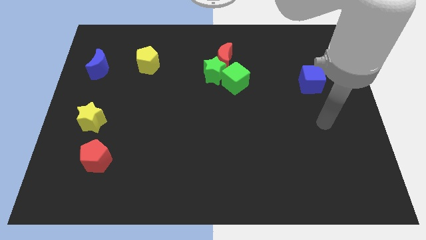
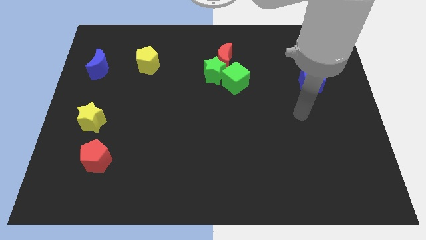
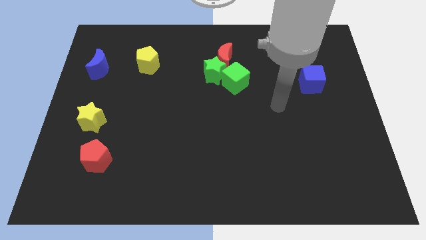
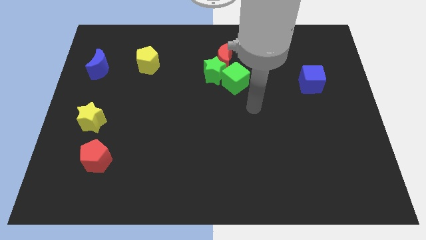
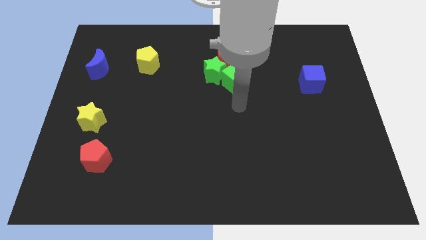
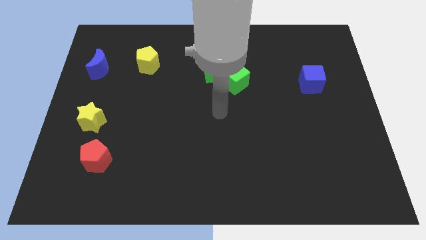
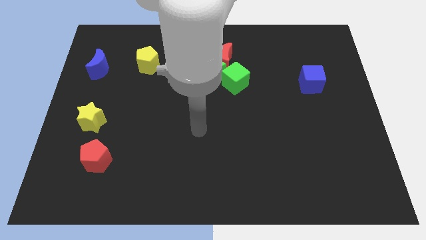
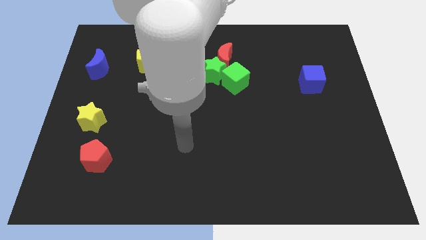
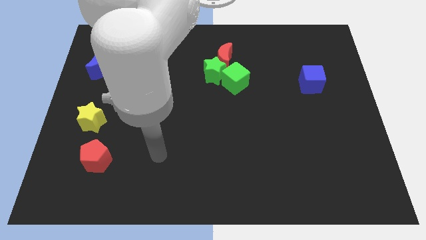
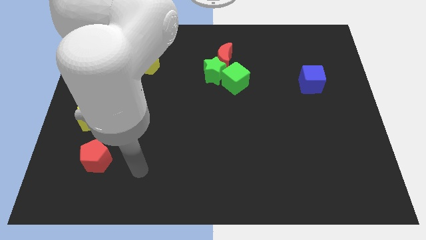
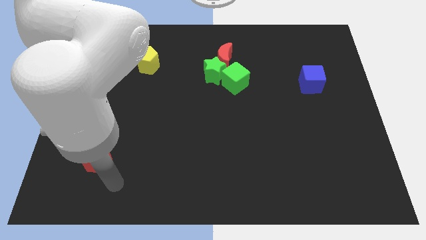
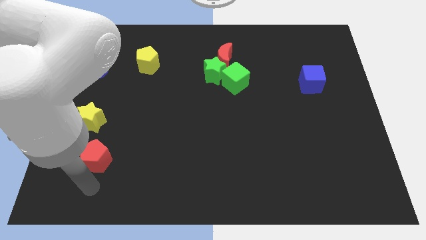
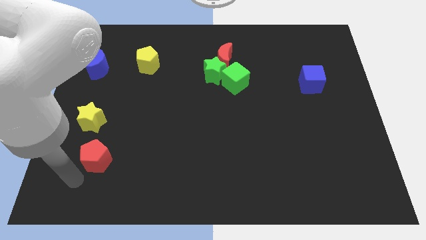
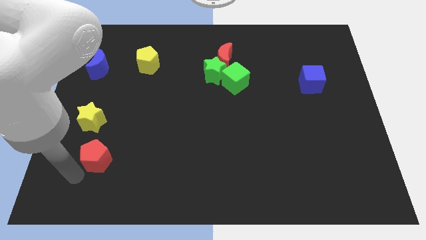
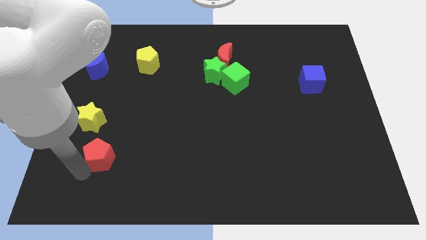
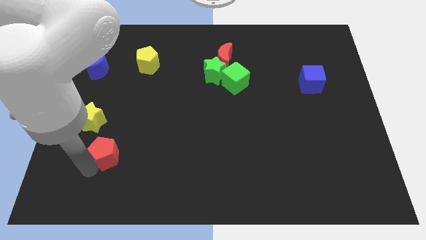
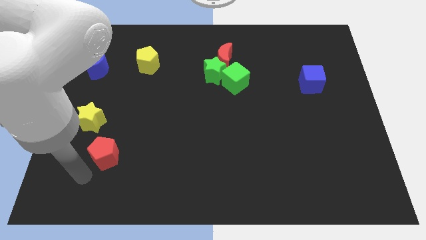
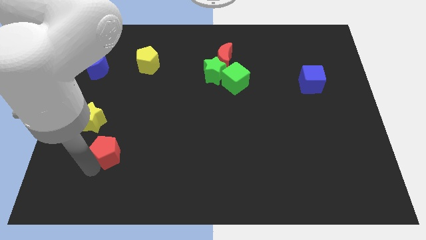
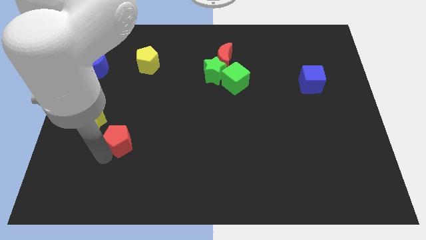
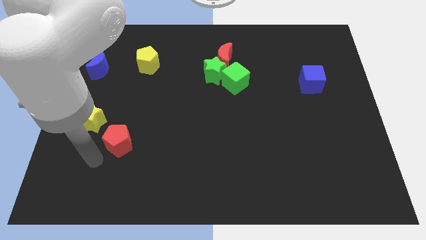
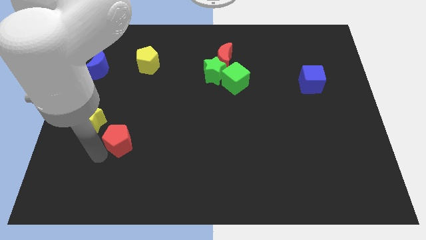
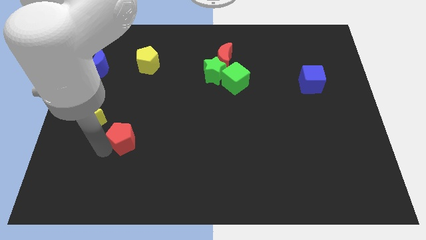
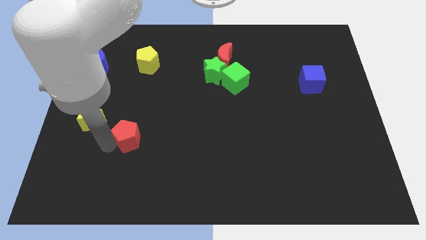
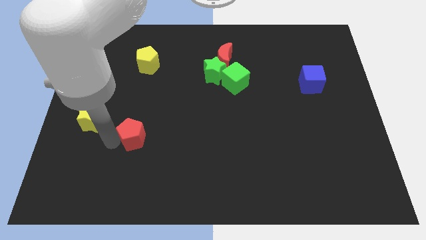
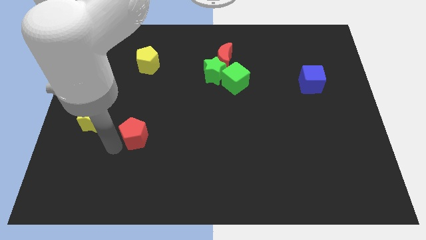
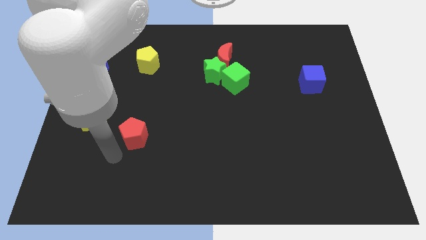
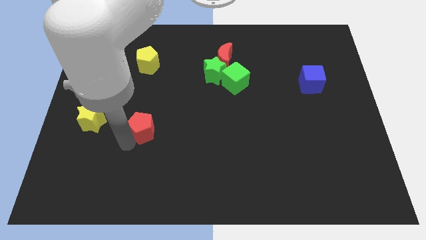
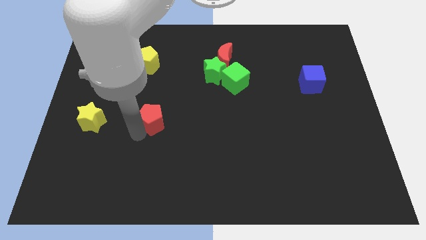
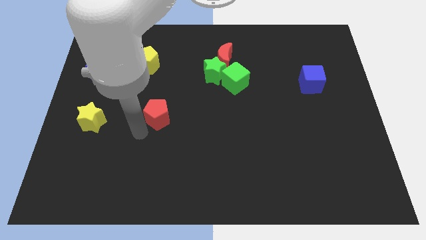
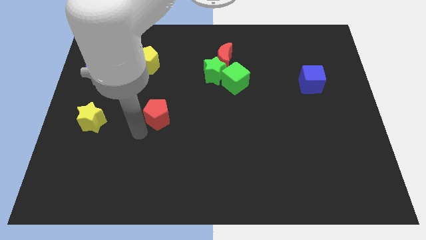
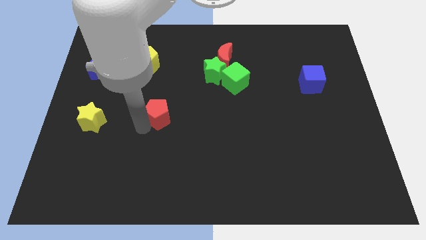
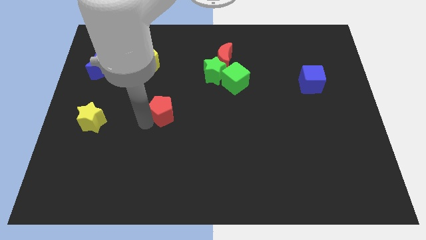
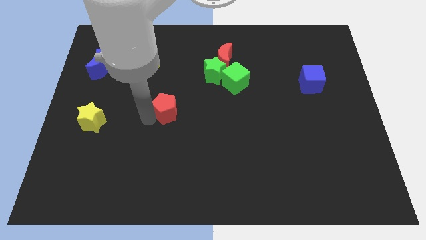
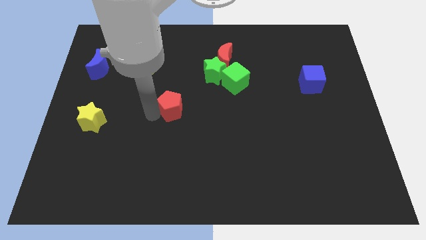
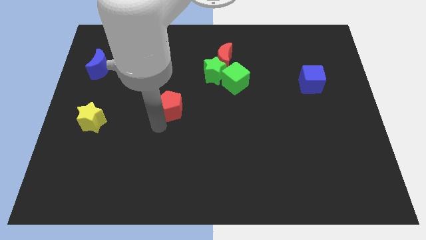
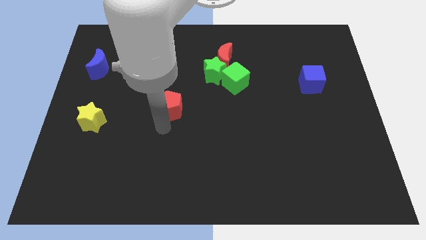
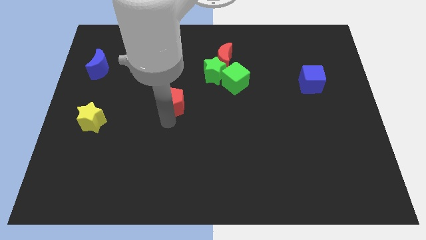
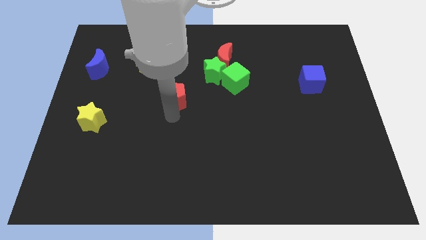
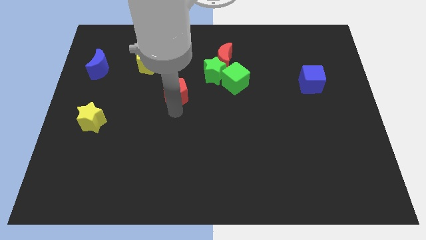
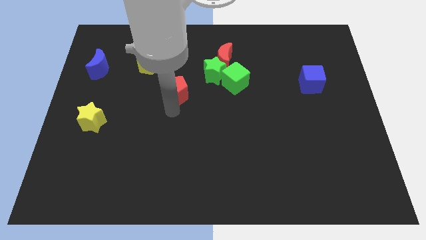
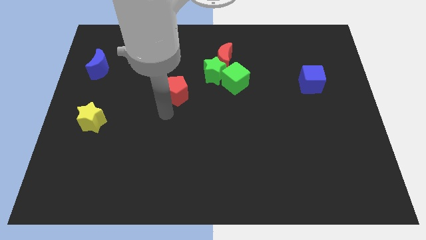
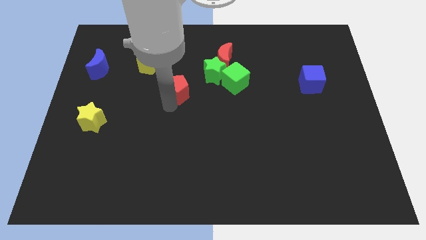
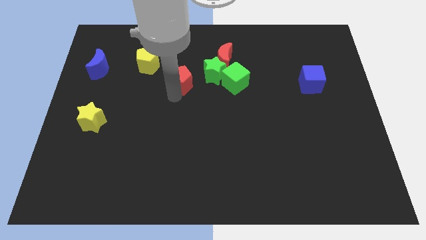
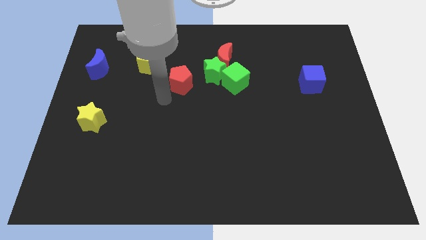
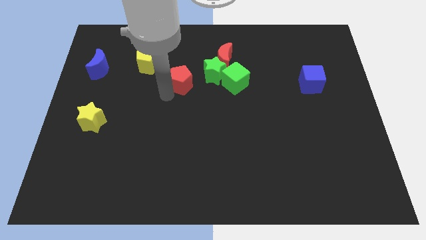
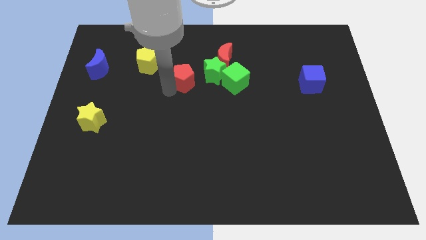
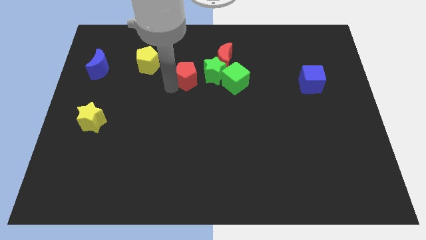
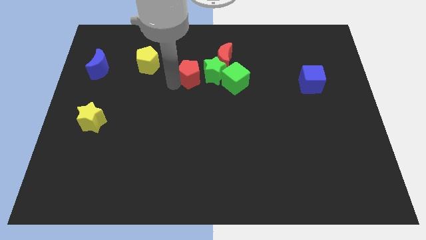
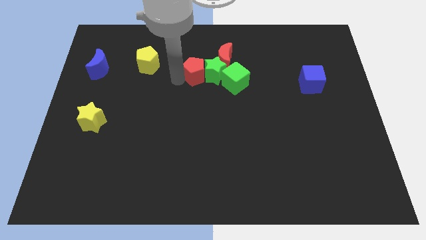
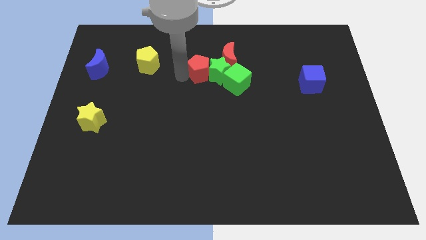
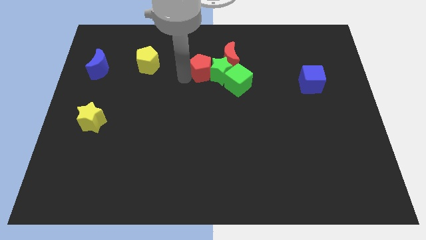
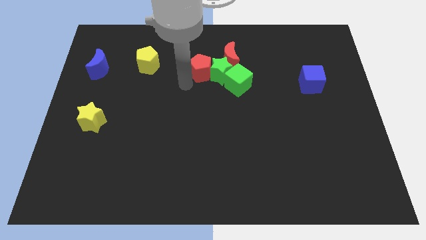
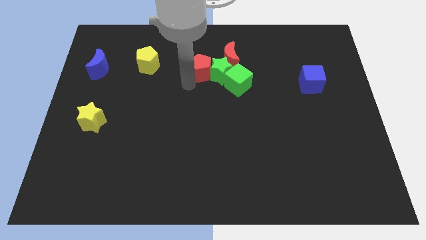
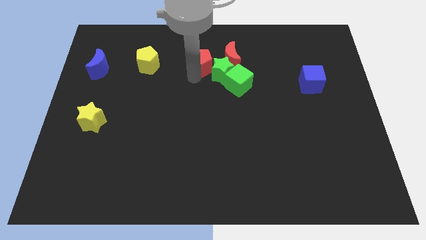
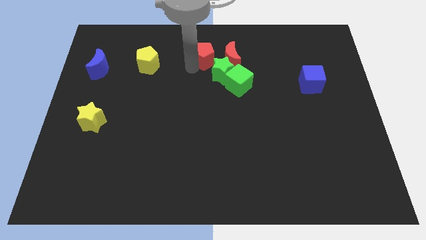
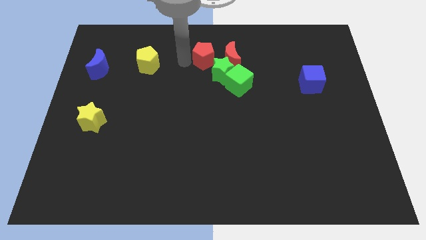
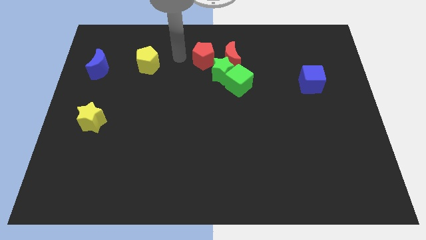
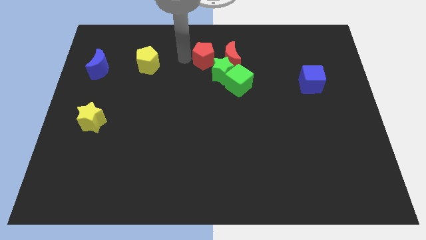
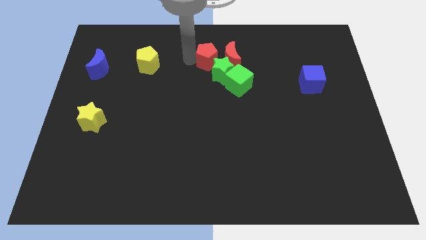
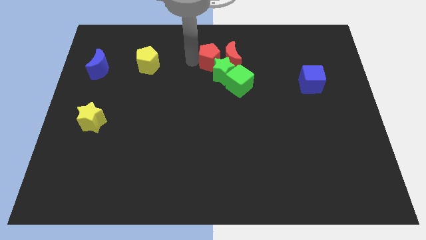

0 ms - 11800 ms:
push the red pentagon next to the red moon

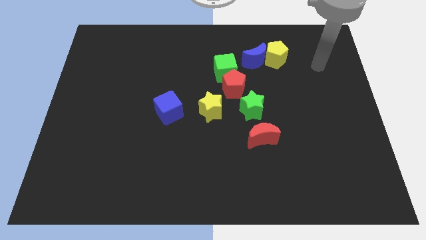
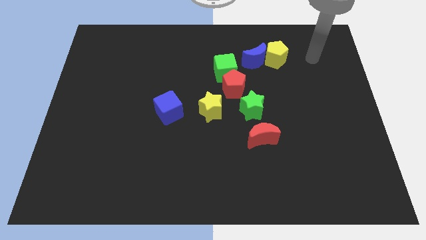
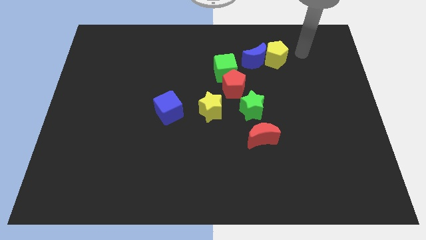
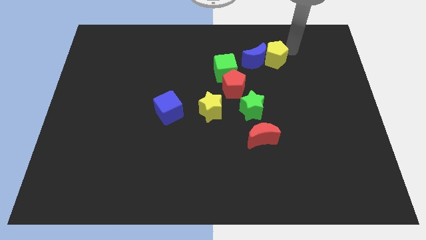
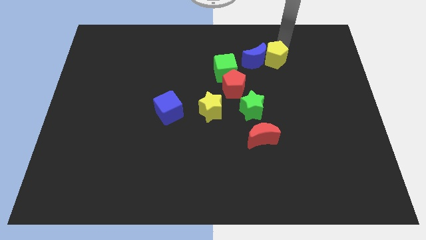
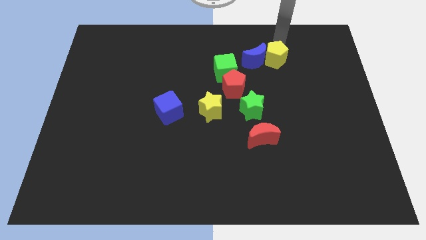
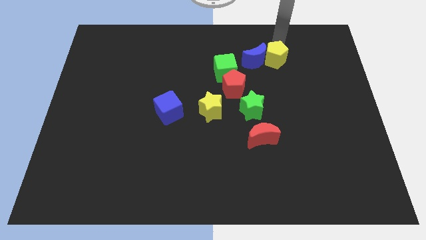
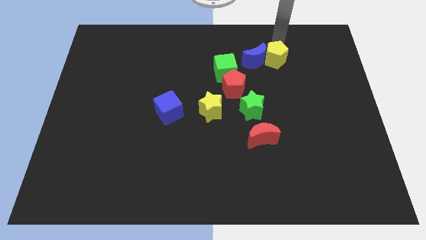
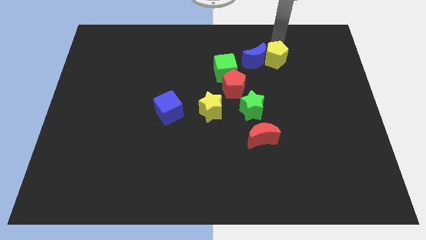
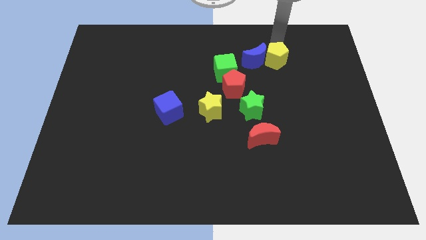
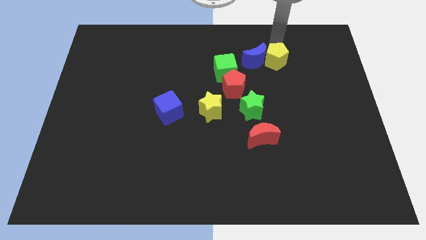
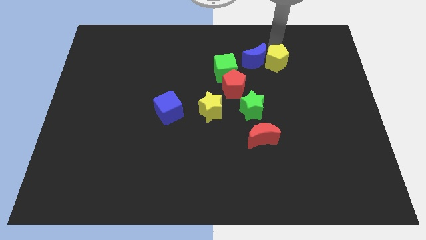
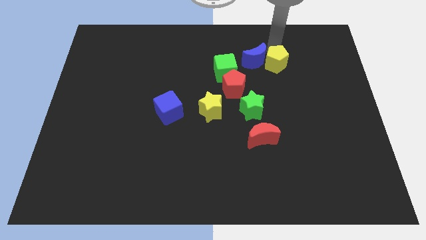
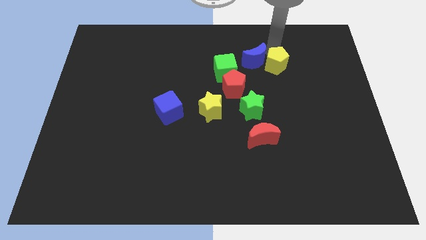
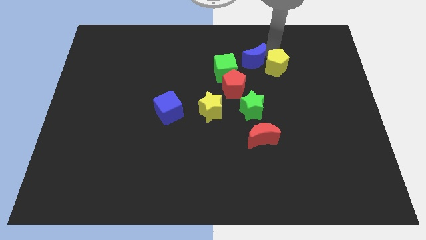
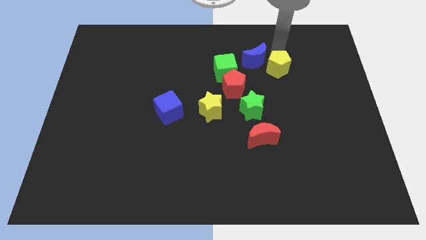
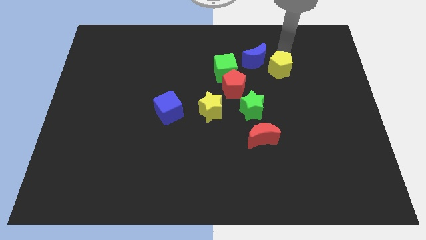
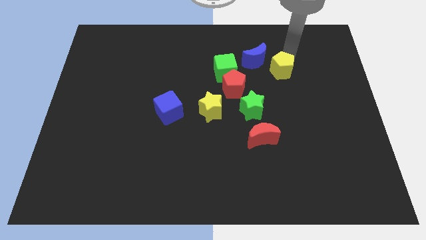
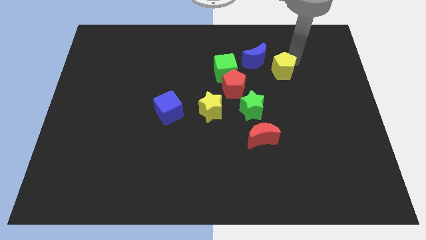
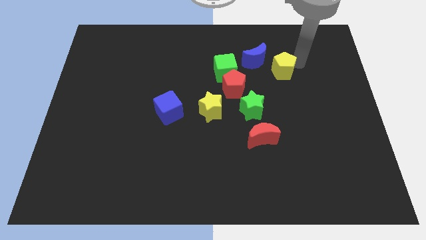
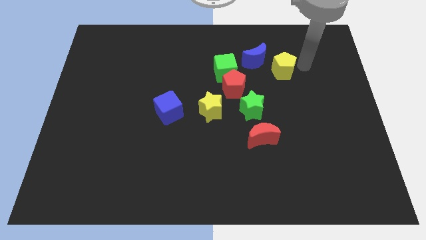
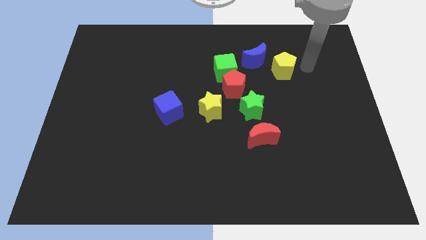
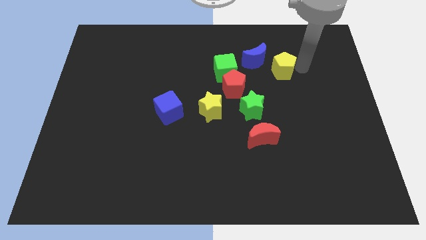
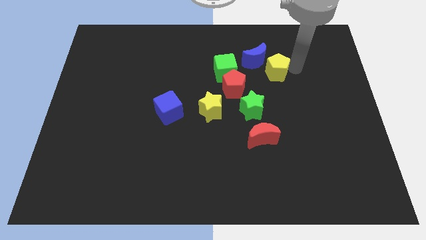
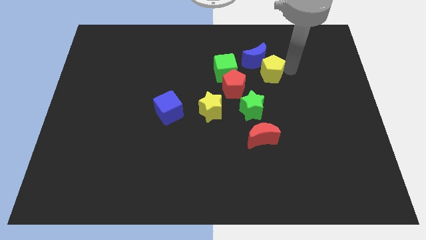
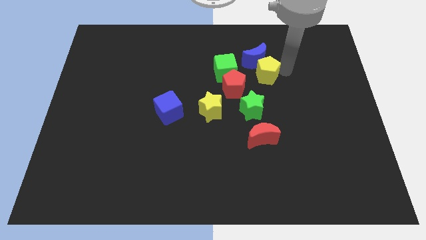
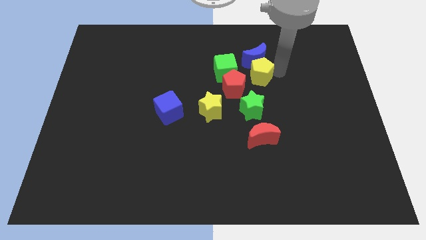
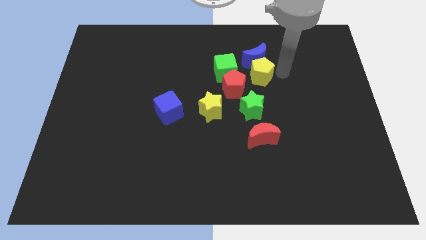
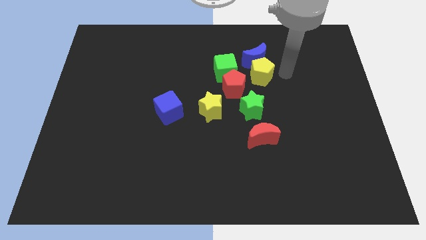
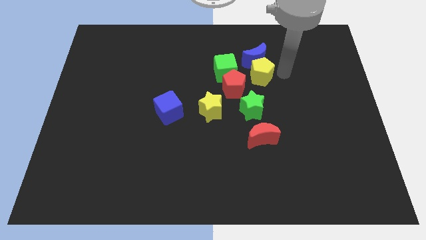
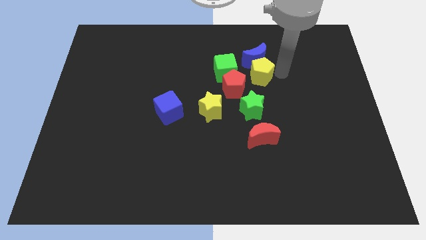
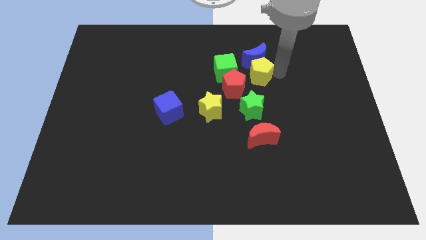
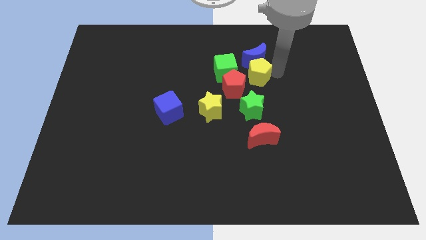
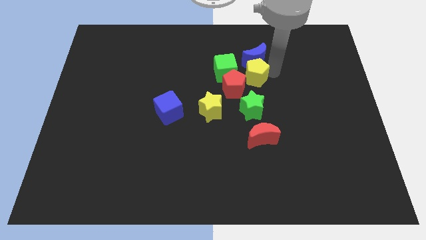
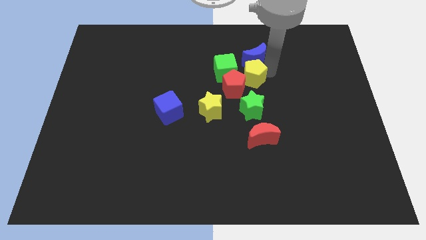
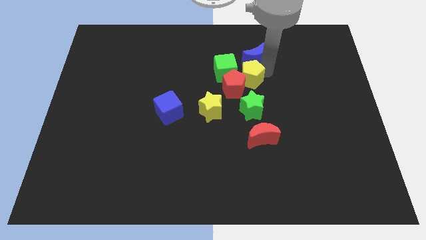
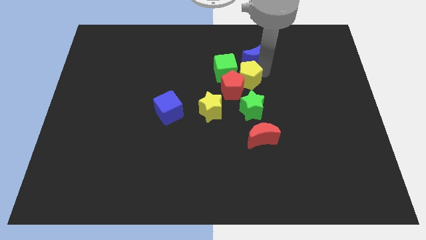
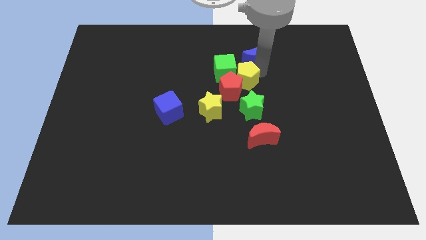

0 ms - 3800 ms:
put the yellow pentagon towards the green cube
